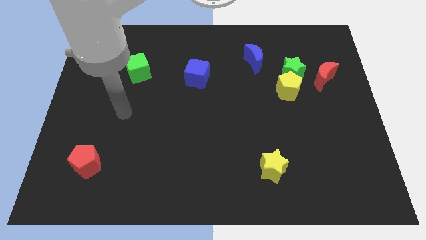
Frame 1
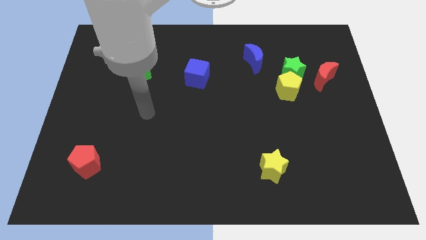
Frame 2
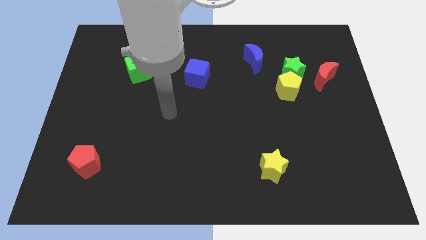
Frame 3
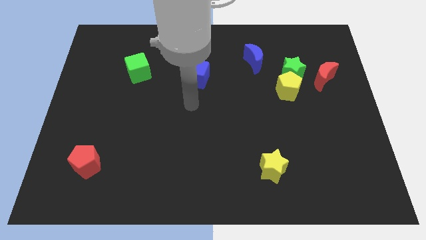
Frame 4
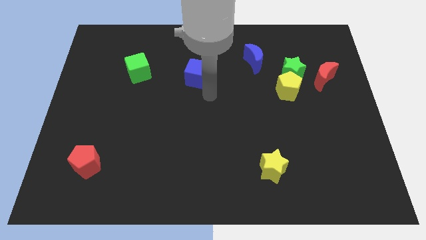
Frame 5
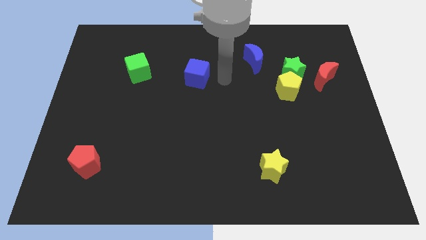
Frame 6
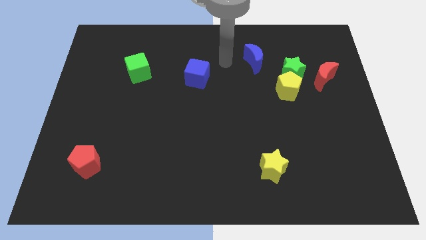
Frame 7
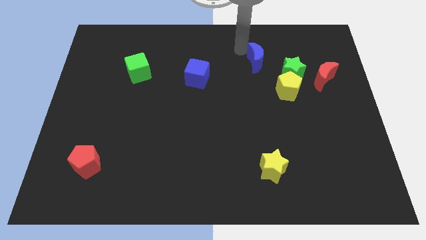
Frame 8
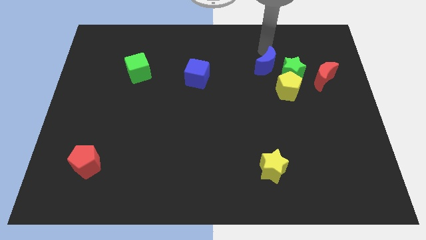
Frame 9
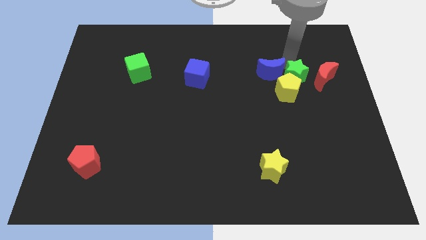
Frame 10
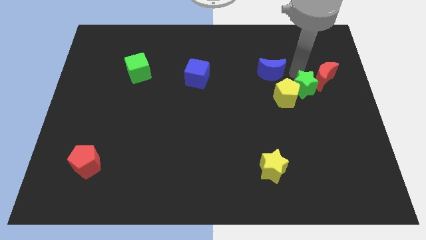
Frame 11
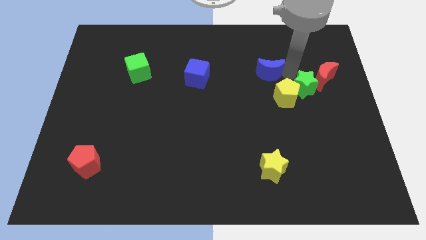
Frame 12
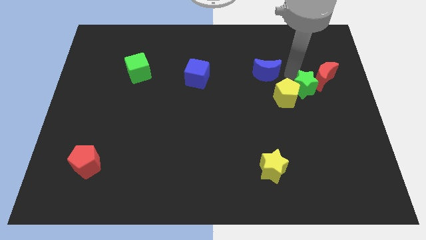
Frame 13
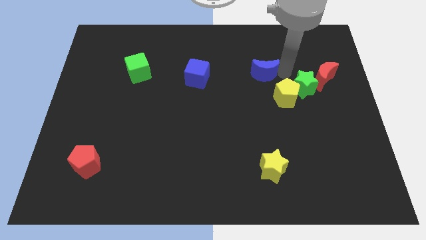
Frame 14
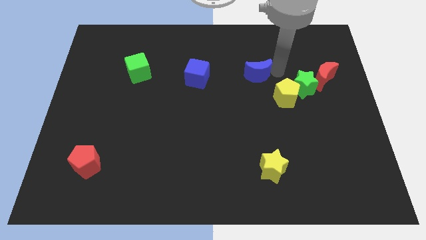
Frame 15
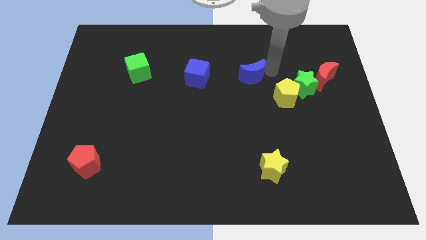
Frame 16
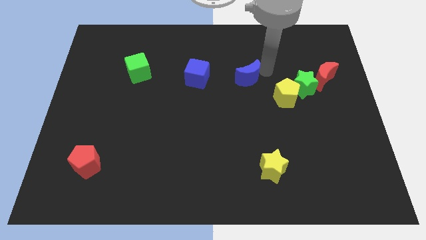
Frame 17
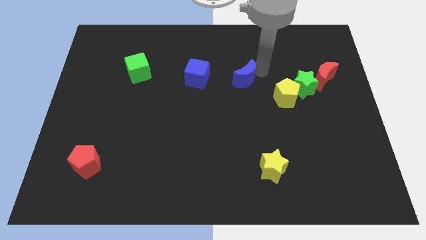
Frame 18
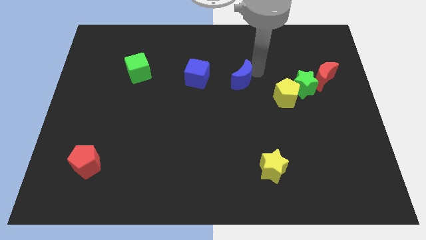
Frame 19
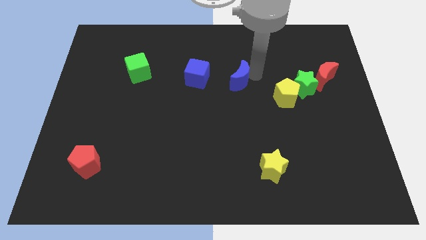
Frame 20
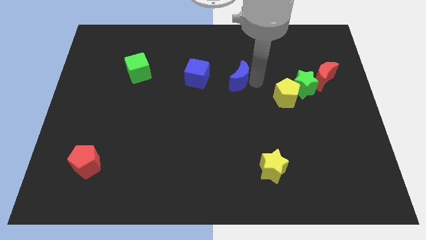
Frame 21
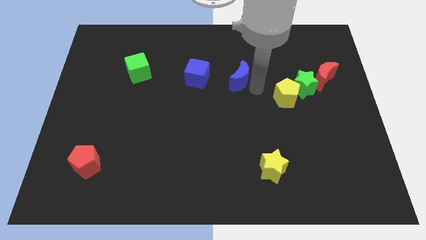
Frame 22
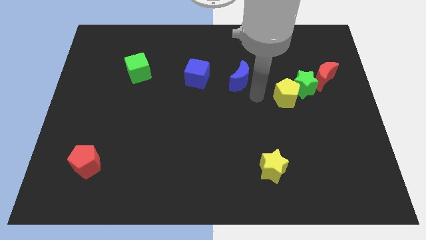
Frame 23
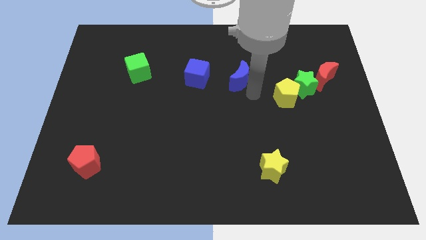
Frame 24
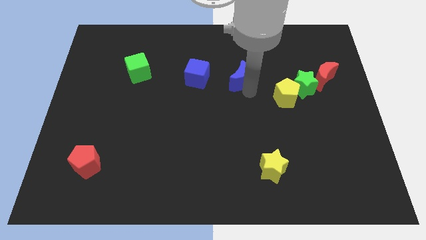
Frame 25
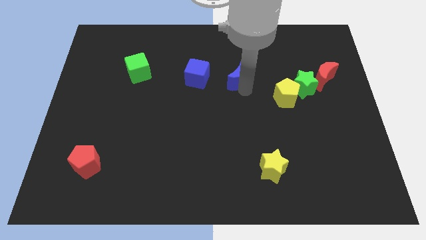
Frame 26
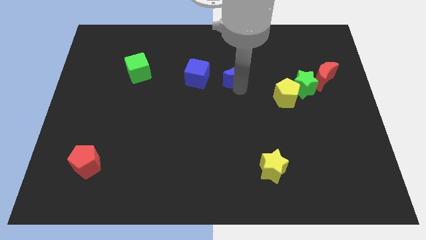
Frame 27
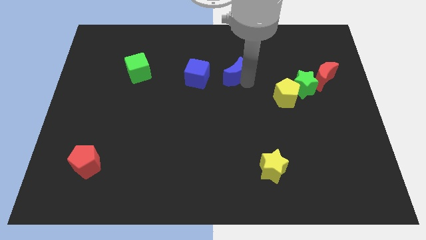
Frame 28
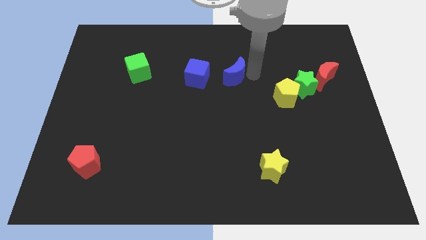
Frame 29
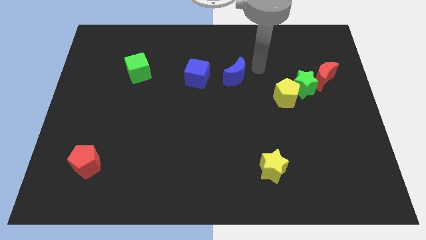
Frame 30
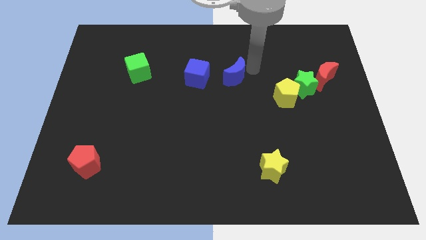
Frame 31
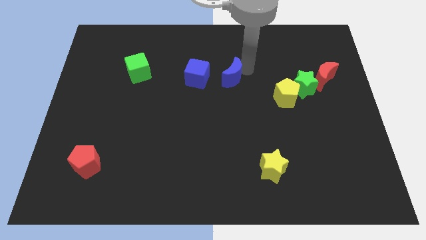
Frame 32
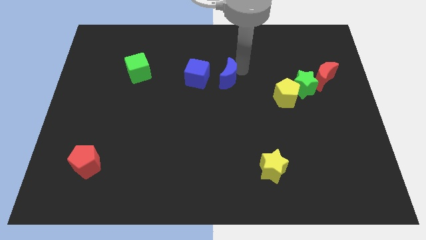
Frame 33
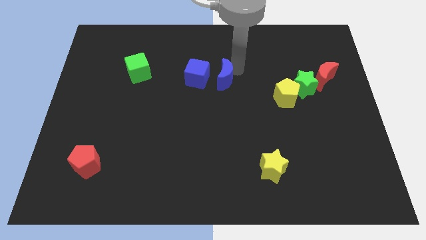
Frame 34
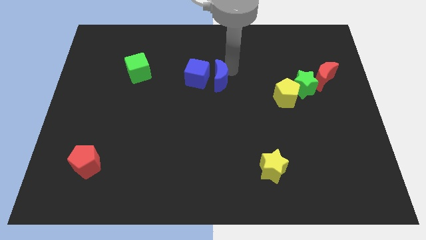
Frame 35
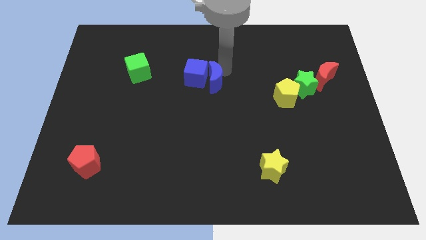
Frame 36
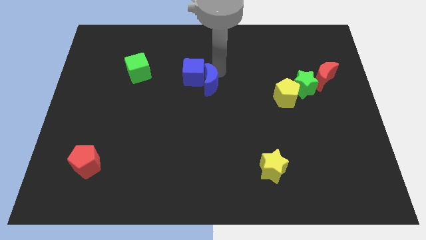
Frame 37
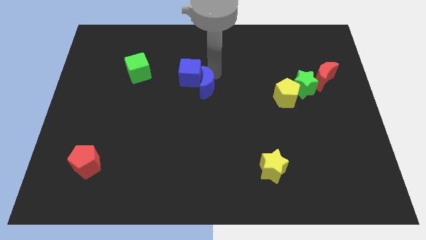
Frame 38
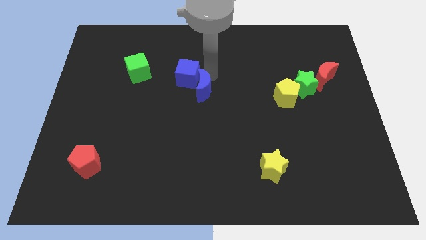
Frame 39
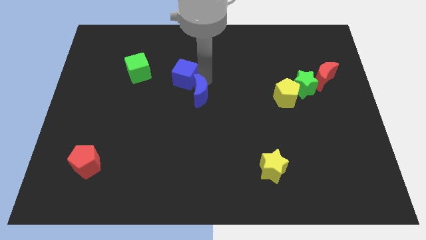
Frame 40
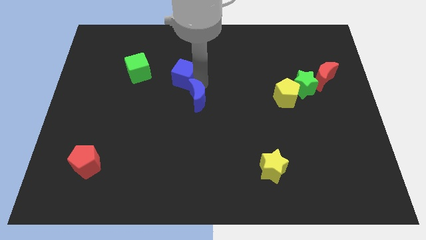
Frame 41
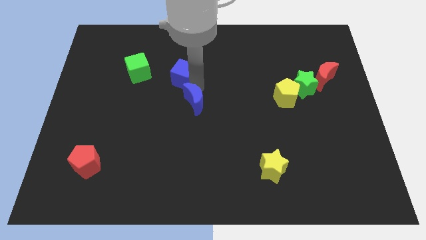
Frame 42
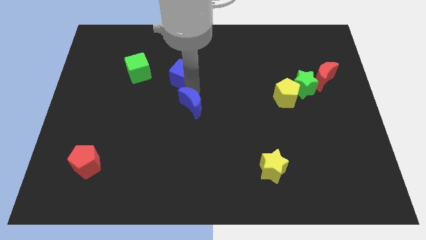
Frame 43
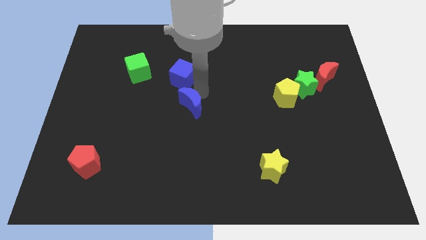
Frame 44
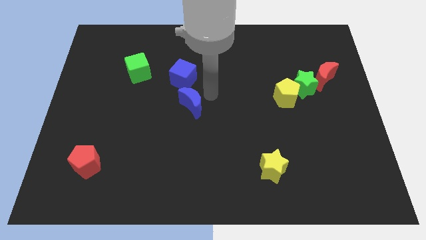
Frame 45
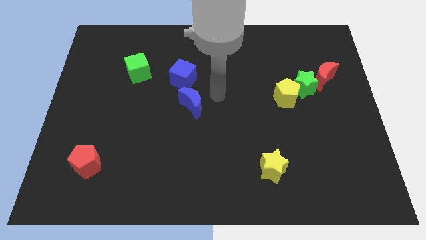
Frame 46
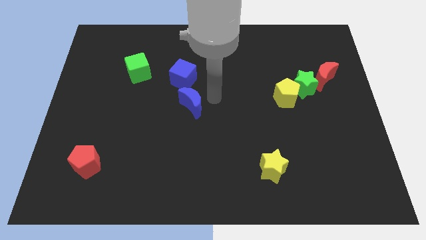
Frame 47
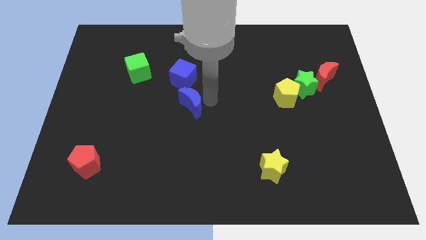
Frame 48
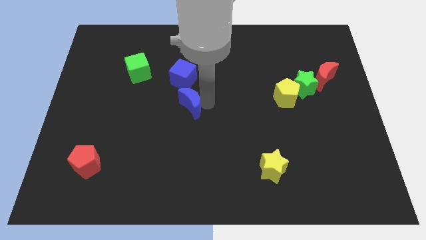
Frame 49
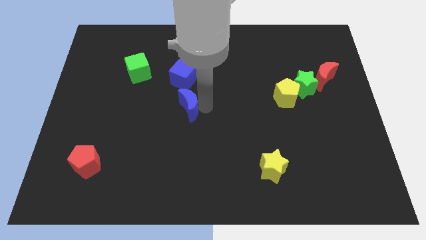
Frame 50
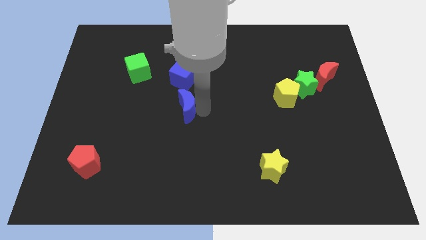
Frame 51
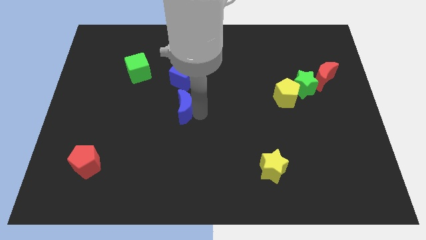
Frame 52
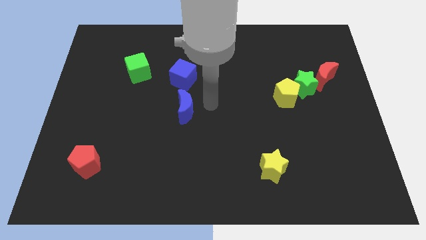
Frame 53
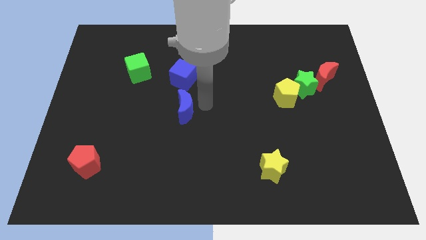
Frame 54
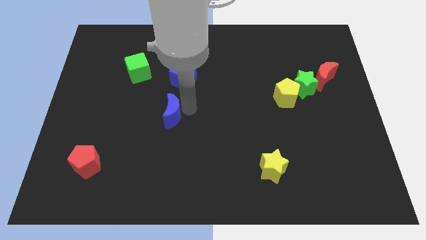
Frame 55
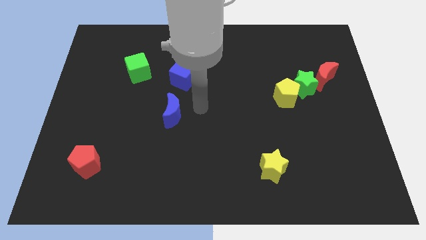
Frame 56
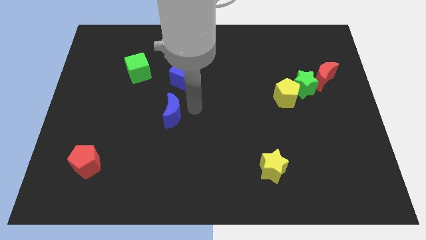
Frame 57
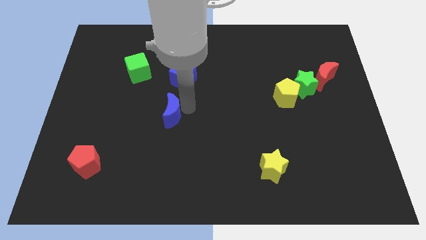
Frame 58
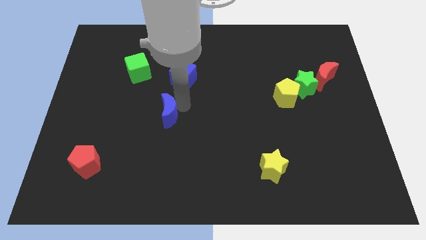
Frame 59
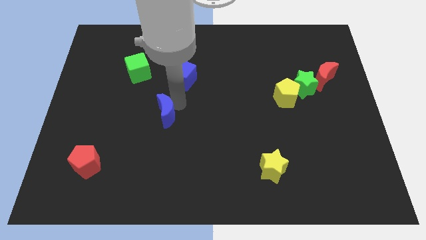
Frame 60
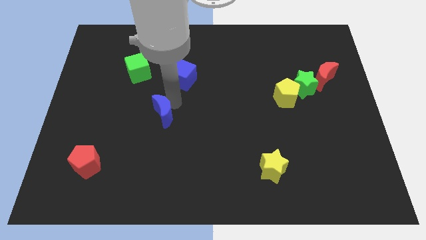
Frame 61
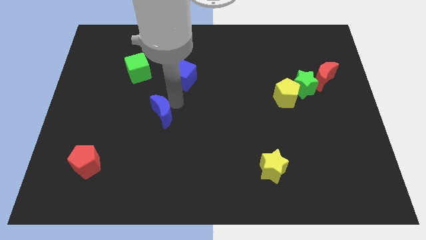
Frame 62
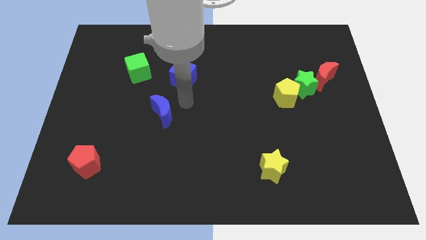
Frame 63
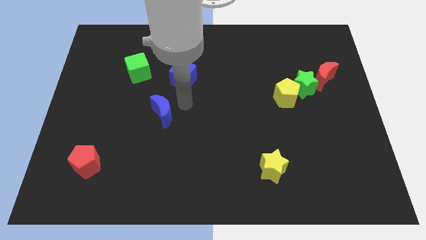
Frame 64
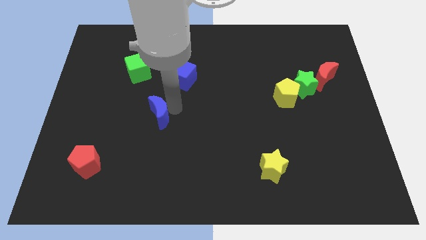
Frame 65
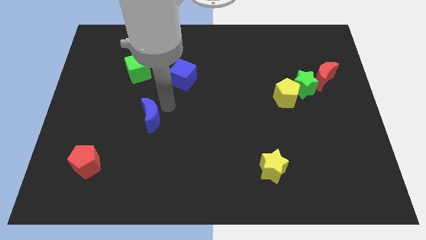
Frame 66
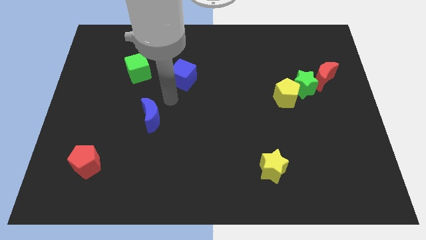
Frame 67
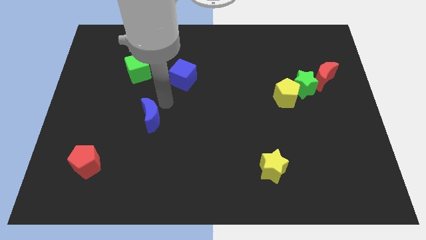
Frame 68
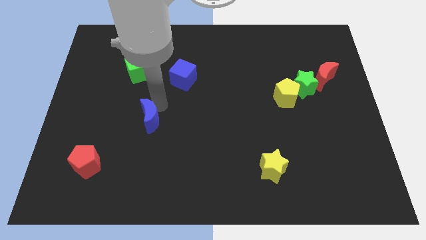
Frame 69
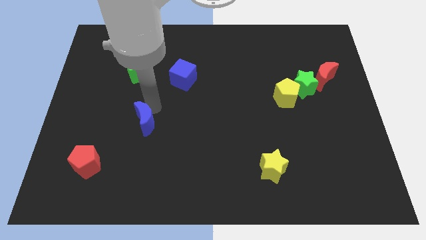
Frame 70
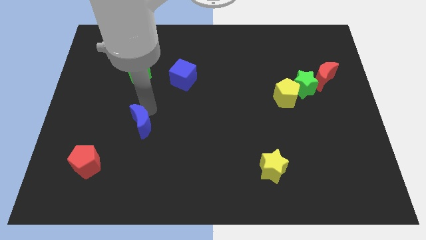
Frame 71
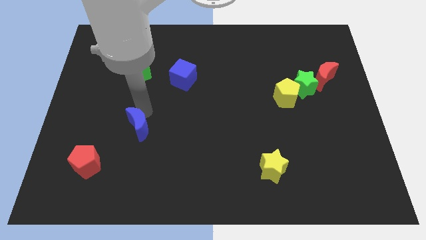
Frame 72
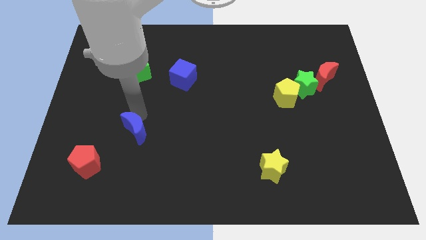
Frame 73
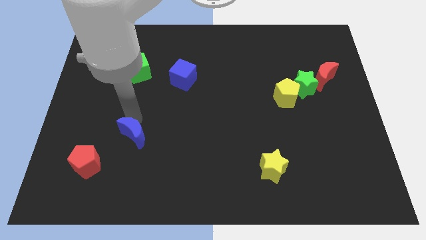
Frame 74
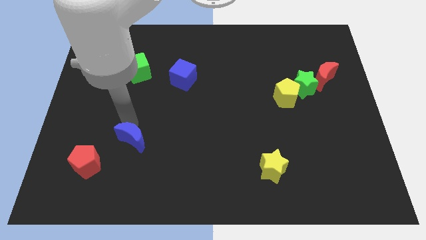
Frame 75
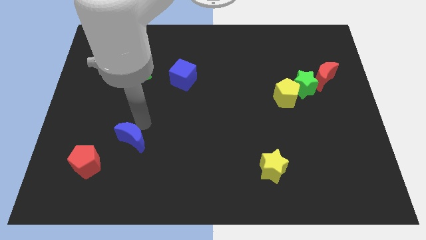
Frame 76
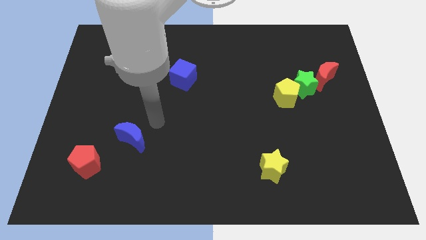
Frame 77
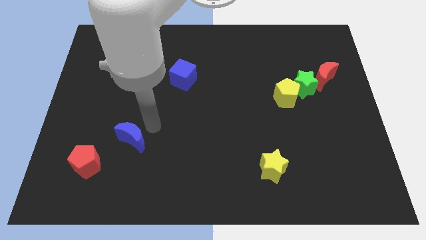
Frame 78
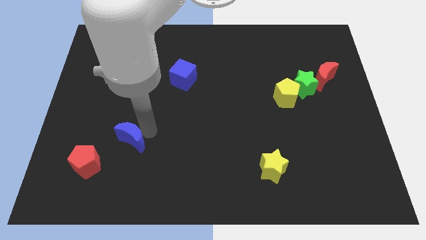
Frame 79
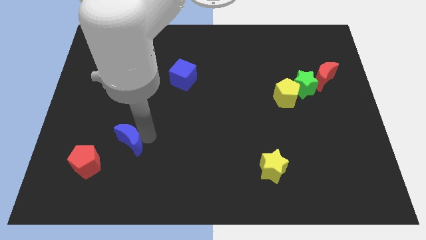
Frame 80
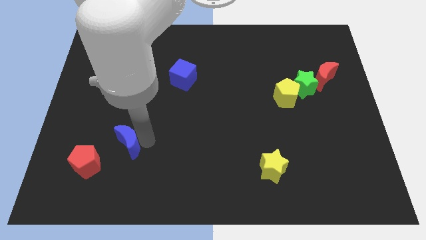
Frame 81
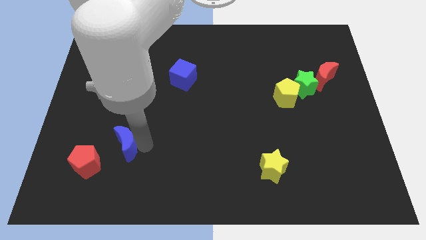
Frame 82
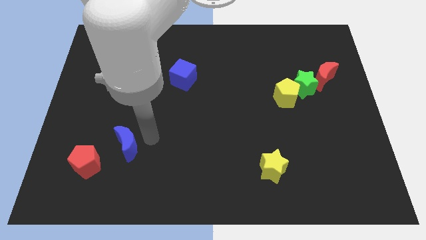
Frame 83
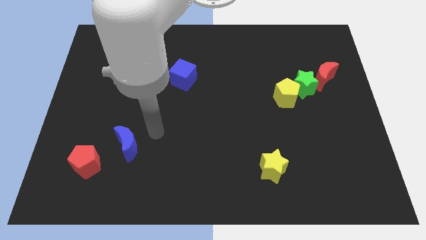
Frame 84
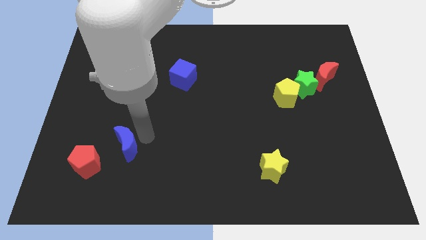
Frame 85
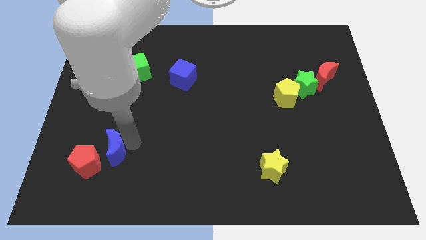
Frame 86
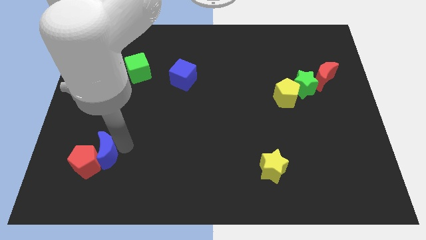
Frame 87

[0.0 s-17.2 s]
push the blue moon towards the red pentagon
